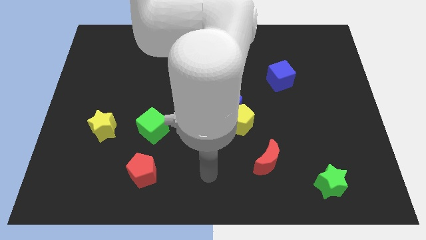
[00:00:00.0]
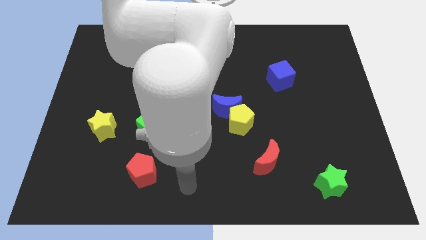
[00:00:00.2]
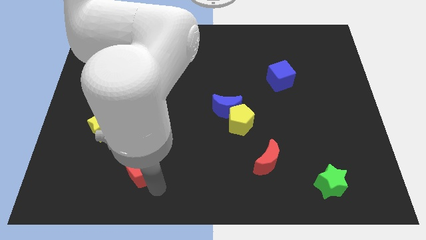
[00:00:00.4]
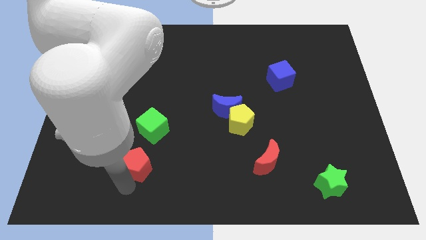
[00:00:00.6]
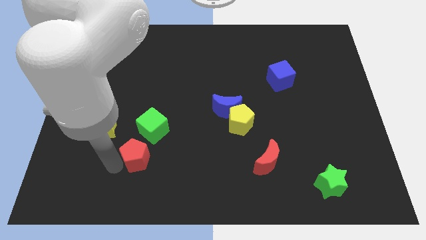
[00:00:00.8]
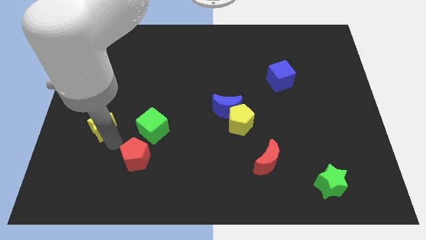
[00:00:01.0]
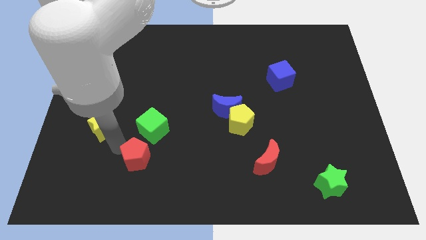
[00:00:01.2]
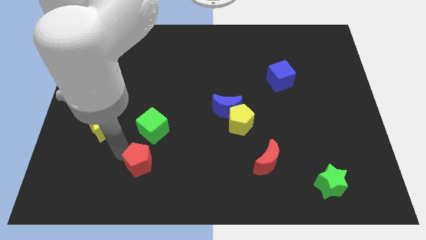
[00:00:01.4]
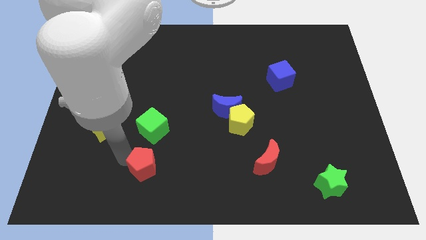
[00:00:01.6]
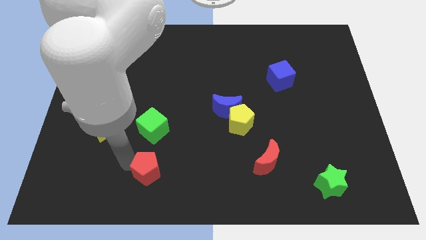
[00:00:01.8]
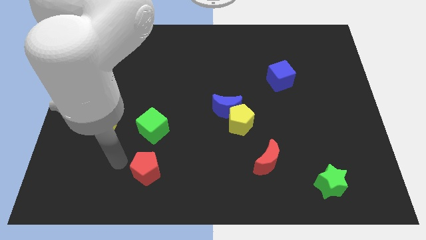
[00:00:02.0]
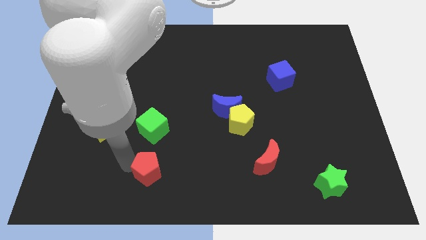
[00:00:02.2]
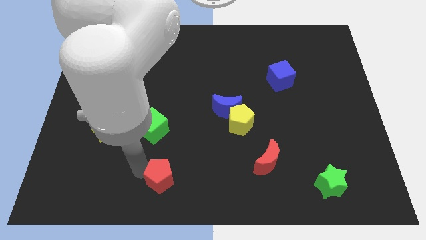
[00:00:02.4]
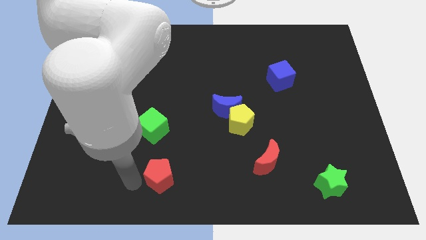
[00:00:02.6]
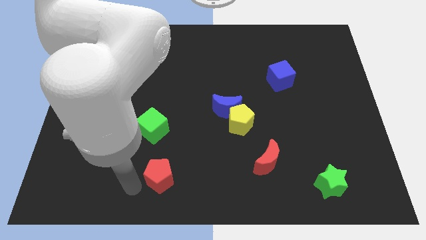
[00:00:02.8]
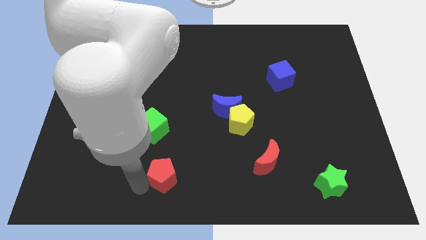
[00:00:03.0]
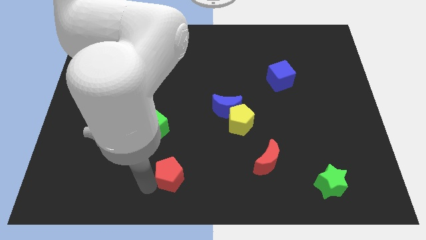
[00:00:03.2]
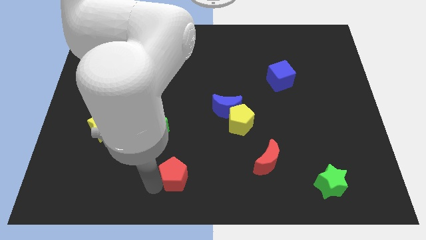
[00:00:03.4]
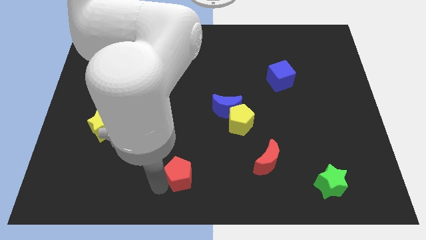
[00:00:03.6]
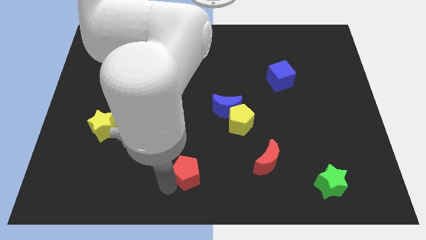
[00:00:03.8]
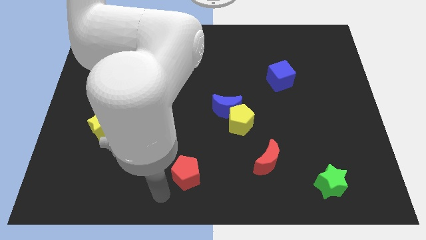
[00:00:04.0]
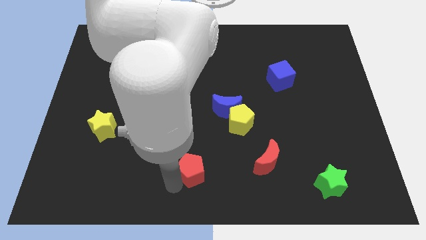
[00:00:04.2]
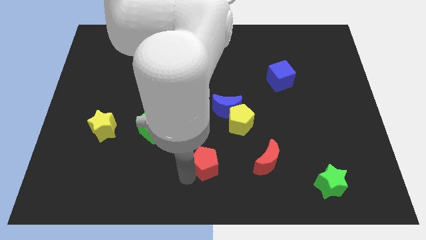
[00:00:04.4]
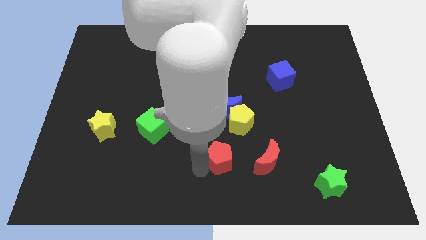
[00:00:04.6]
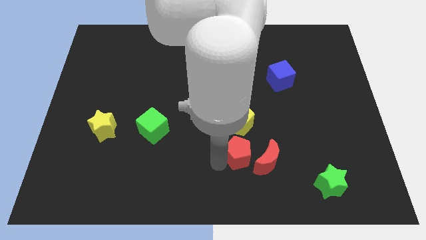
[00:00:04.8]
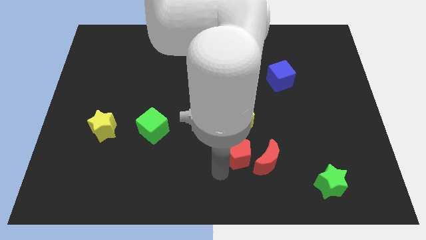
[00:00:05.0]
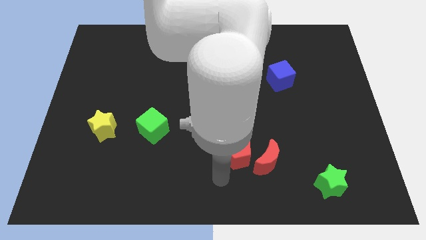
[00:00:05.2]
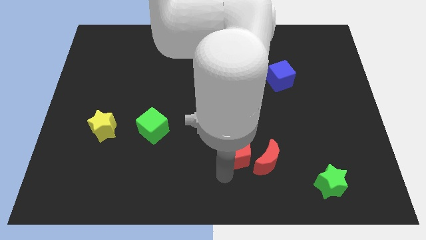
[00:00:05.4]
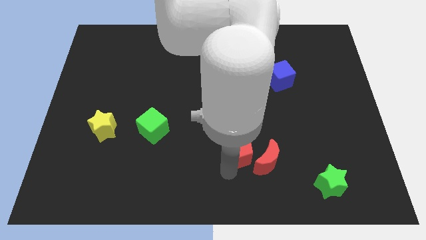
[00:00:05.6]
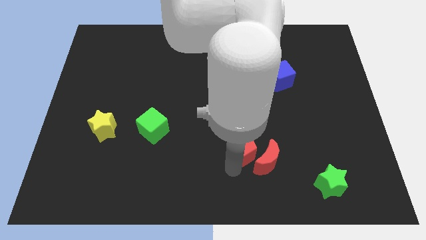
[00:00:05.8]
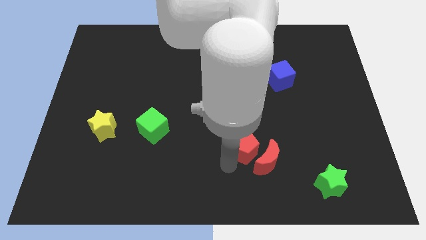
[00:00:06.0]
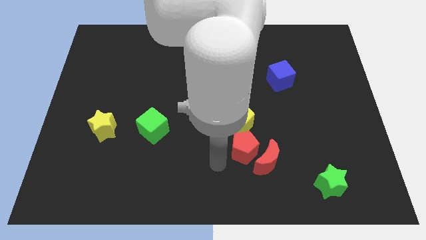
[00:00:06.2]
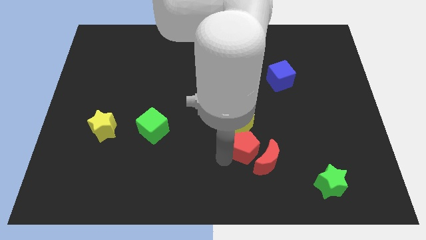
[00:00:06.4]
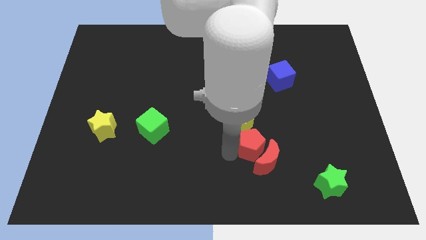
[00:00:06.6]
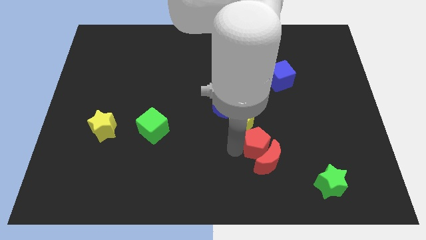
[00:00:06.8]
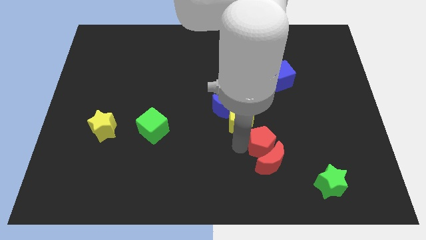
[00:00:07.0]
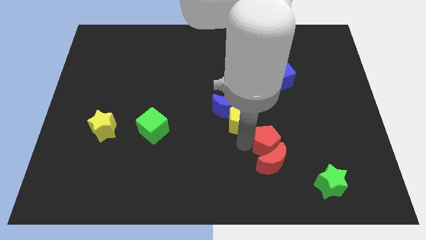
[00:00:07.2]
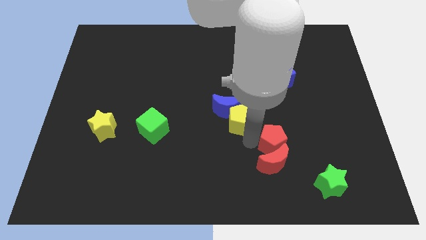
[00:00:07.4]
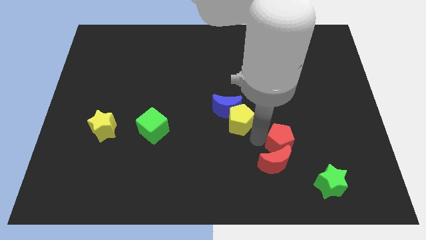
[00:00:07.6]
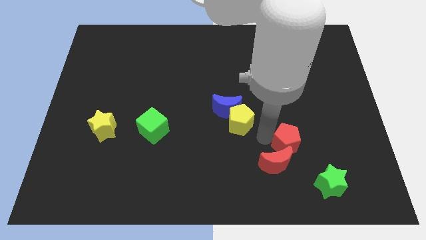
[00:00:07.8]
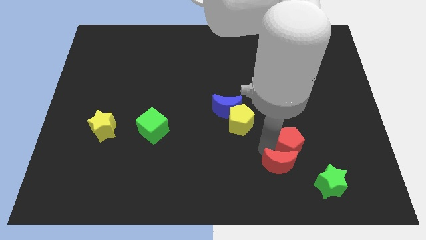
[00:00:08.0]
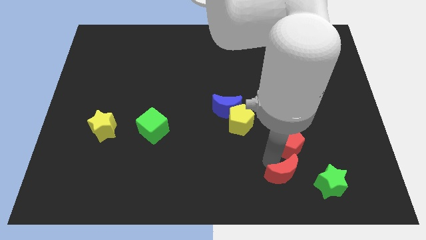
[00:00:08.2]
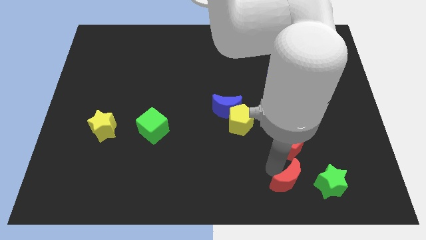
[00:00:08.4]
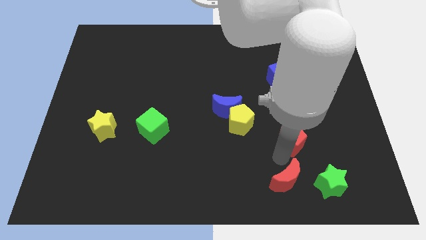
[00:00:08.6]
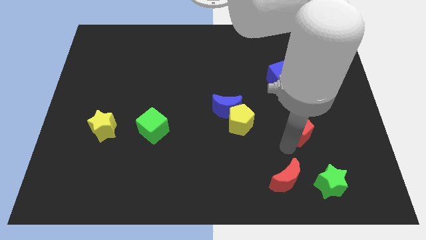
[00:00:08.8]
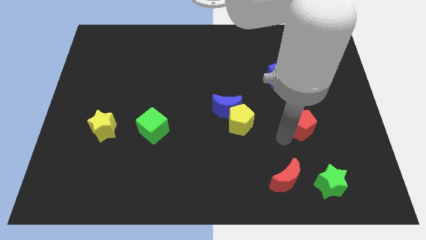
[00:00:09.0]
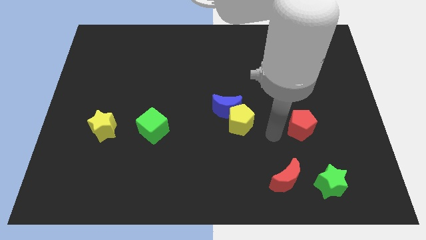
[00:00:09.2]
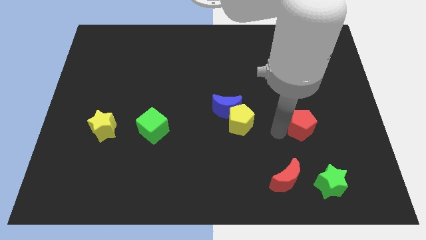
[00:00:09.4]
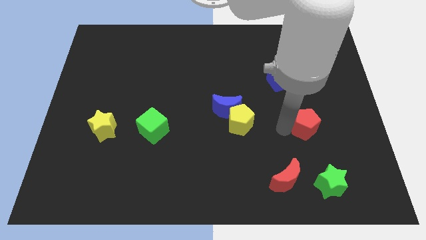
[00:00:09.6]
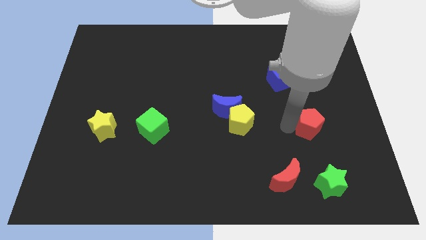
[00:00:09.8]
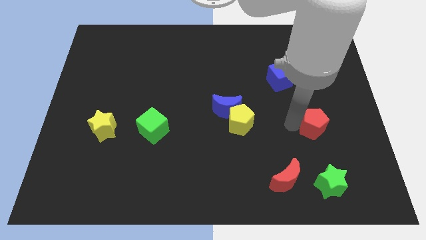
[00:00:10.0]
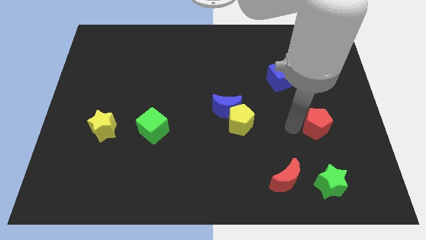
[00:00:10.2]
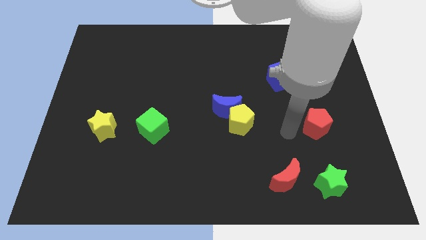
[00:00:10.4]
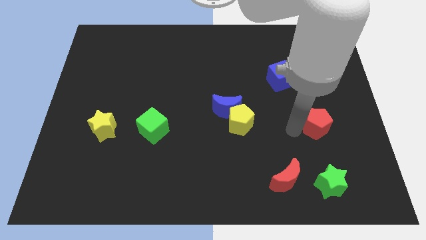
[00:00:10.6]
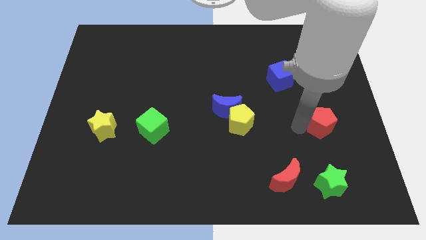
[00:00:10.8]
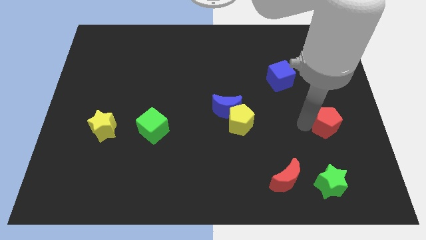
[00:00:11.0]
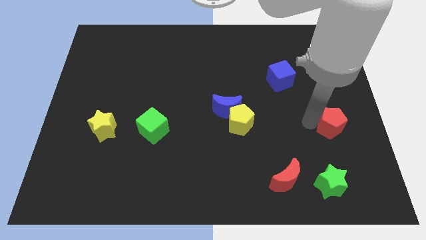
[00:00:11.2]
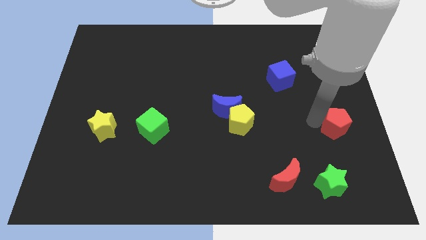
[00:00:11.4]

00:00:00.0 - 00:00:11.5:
move the red pentagon to the right side

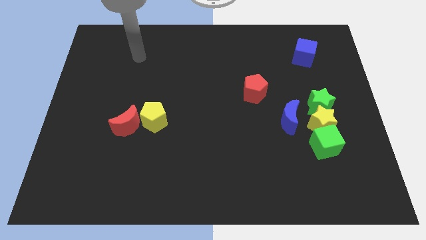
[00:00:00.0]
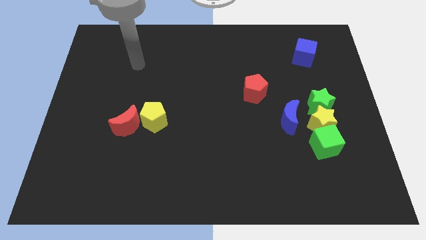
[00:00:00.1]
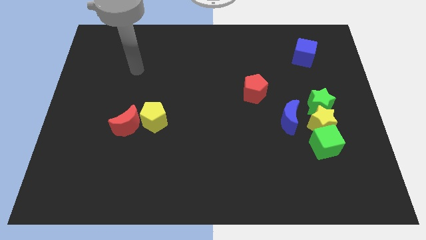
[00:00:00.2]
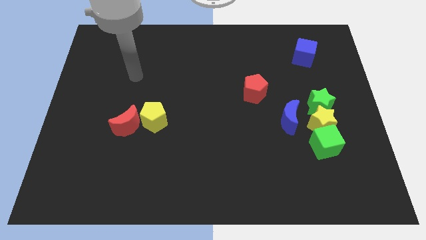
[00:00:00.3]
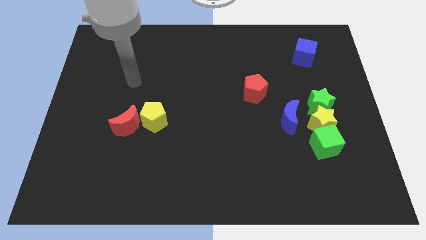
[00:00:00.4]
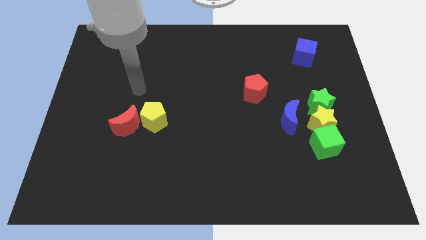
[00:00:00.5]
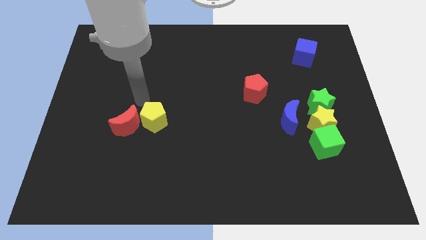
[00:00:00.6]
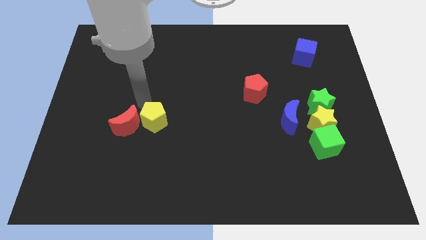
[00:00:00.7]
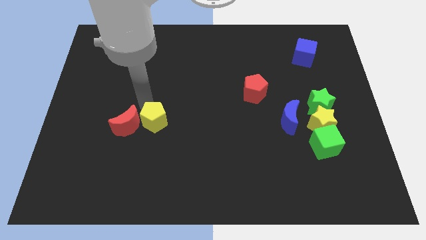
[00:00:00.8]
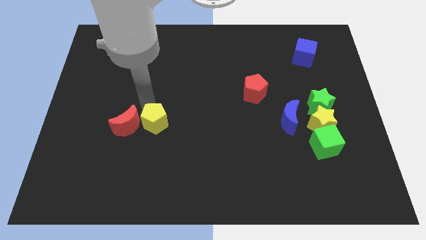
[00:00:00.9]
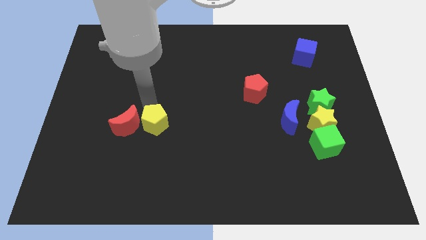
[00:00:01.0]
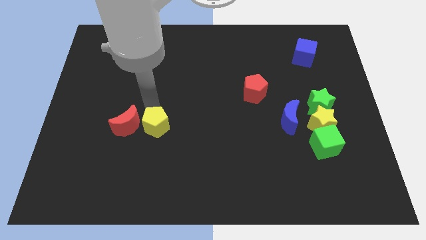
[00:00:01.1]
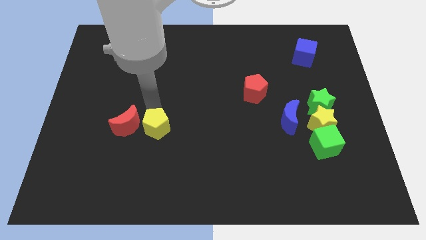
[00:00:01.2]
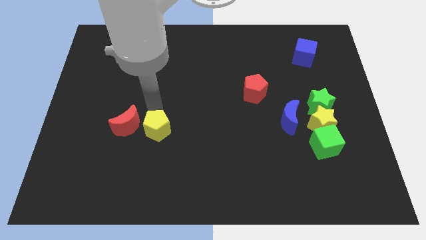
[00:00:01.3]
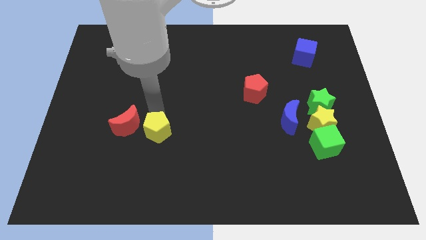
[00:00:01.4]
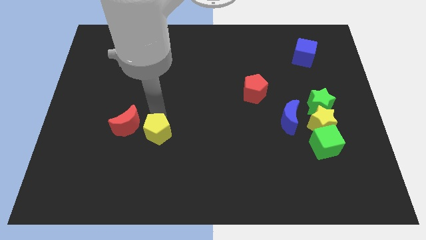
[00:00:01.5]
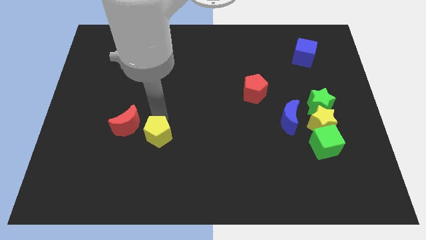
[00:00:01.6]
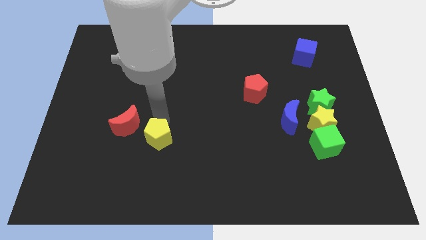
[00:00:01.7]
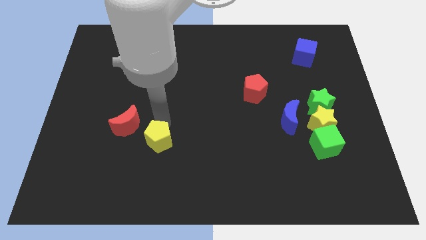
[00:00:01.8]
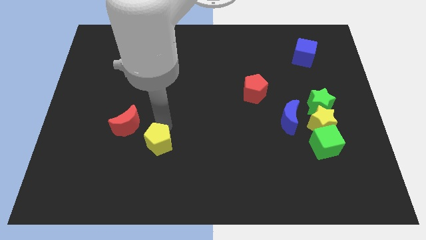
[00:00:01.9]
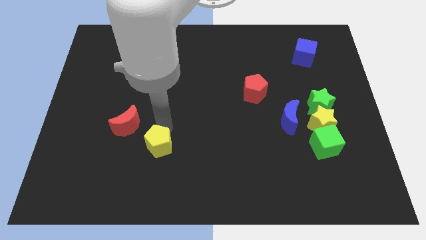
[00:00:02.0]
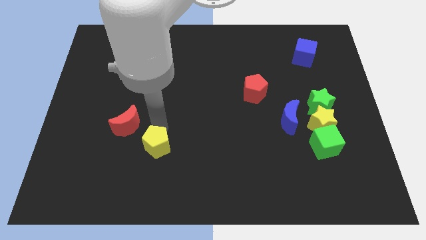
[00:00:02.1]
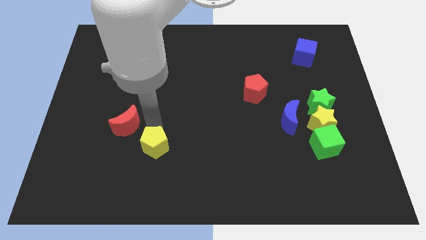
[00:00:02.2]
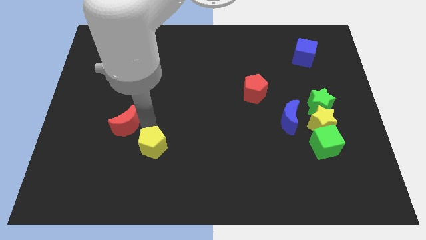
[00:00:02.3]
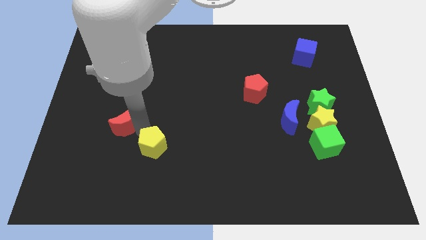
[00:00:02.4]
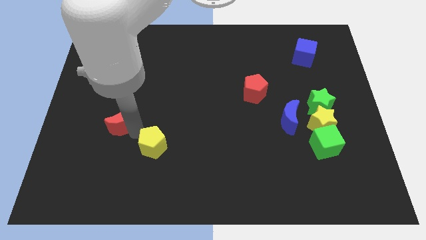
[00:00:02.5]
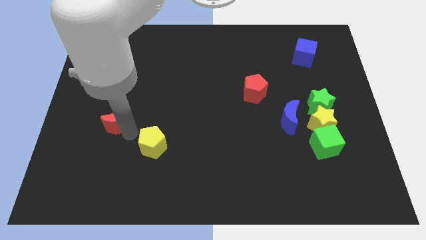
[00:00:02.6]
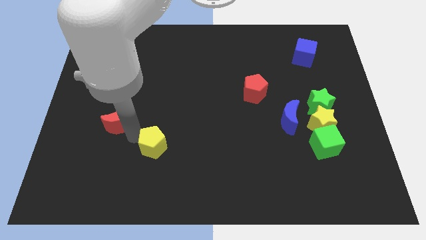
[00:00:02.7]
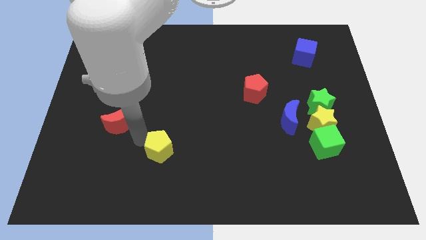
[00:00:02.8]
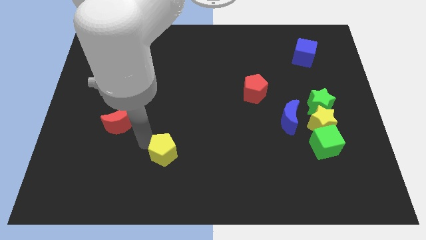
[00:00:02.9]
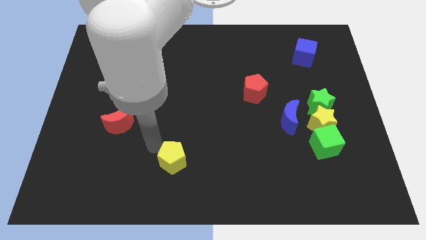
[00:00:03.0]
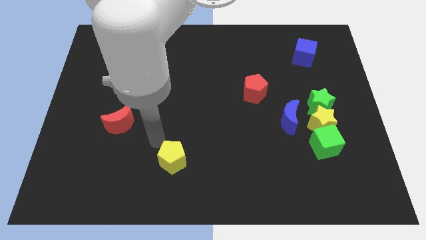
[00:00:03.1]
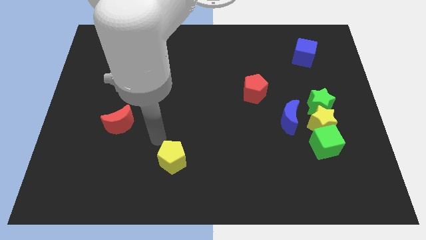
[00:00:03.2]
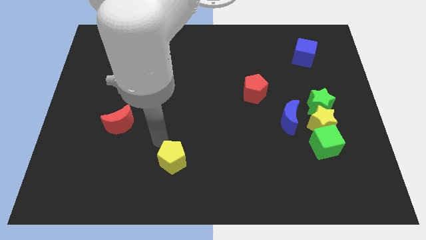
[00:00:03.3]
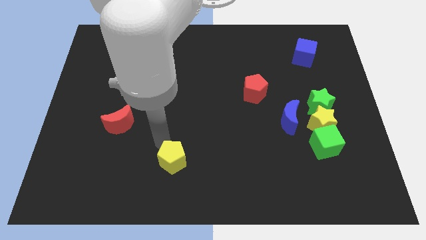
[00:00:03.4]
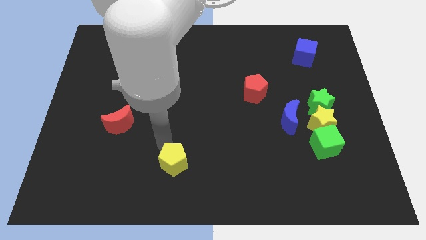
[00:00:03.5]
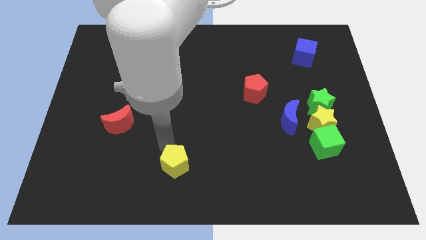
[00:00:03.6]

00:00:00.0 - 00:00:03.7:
move the yellow pentagon to the bottom
